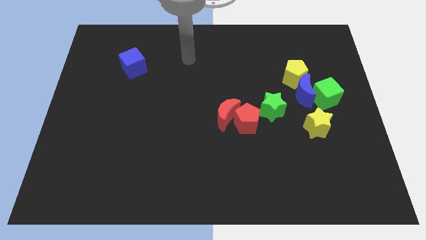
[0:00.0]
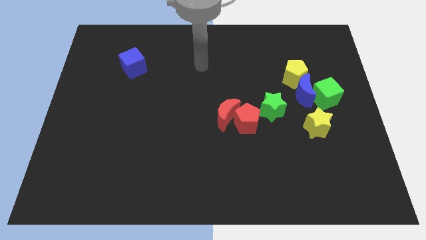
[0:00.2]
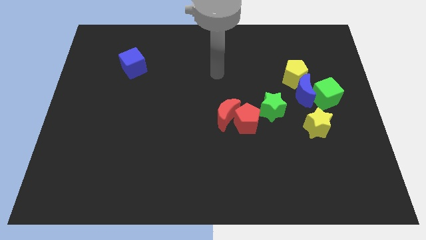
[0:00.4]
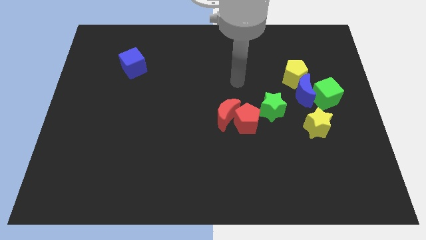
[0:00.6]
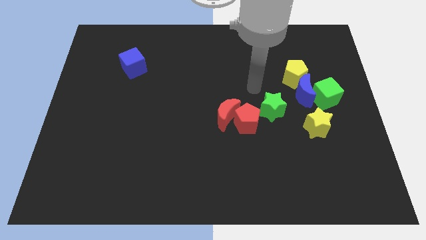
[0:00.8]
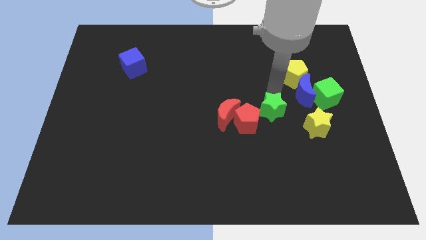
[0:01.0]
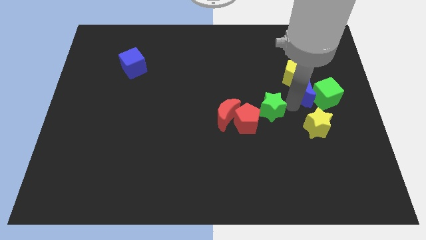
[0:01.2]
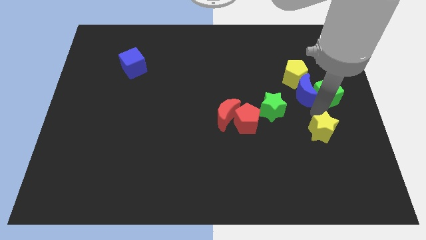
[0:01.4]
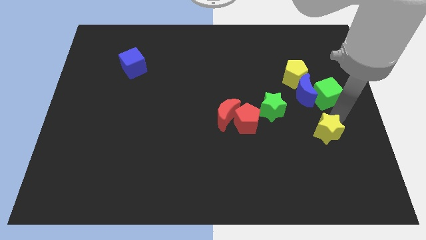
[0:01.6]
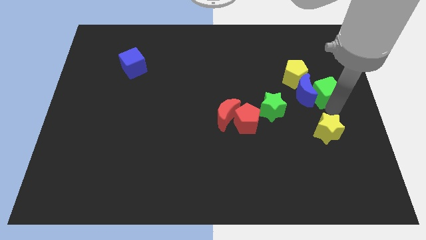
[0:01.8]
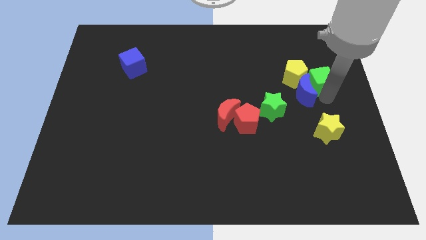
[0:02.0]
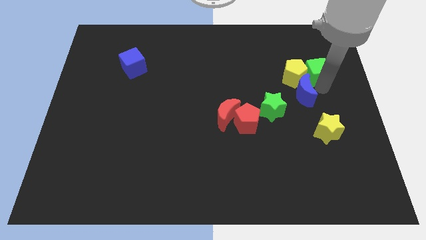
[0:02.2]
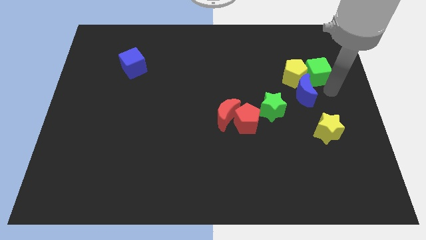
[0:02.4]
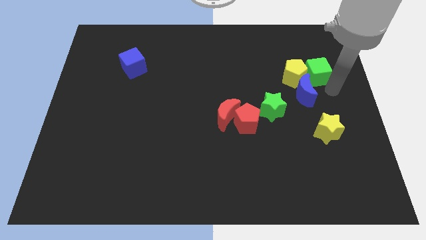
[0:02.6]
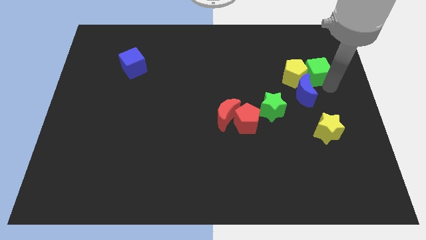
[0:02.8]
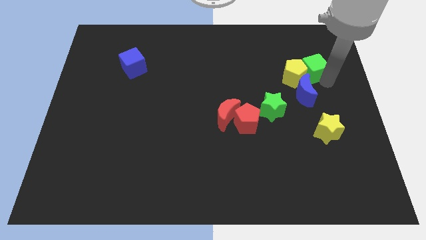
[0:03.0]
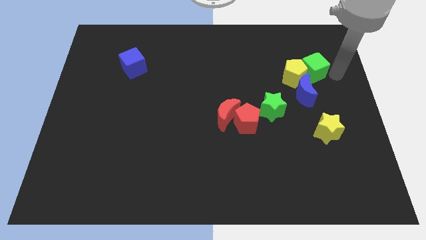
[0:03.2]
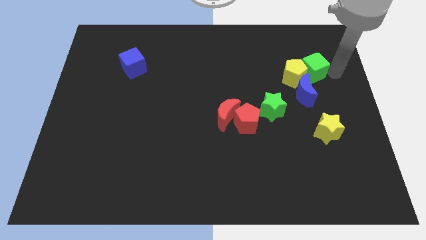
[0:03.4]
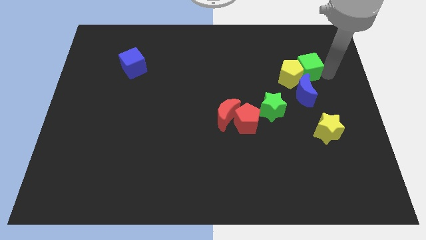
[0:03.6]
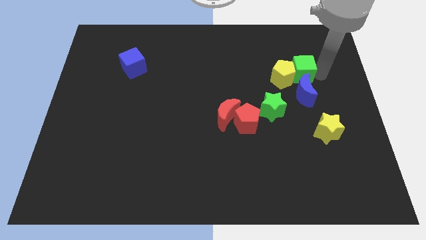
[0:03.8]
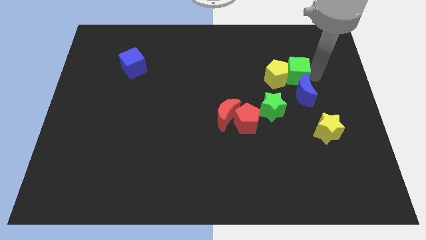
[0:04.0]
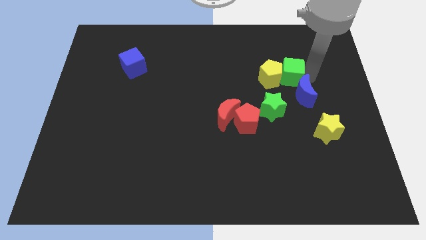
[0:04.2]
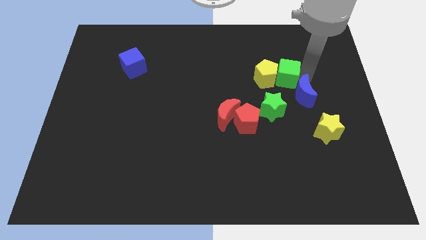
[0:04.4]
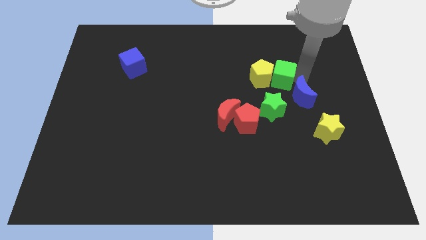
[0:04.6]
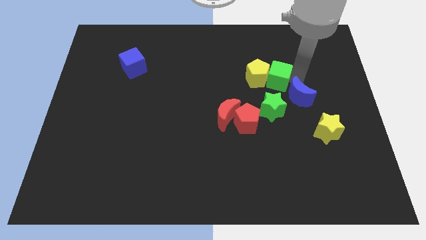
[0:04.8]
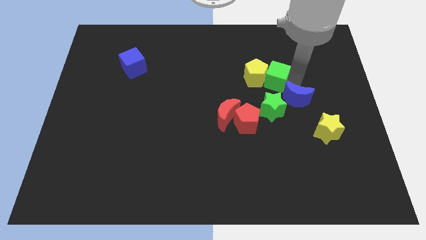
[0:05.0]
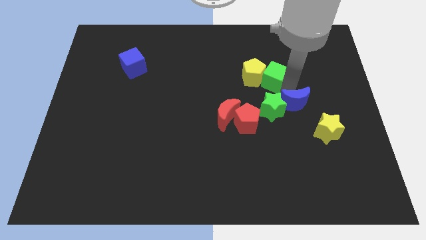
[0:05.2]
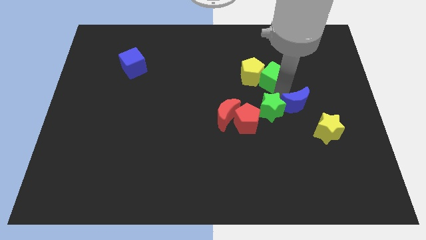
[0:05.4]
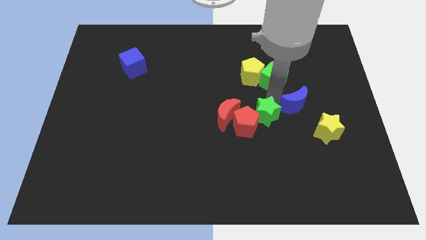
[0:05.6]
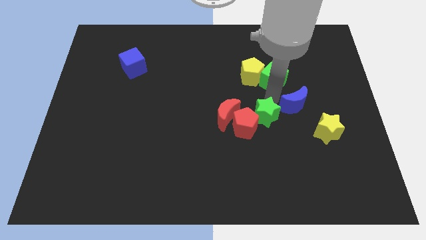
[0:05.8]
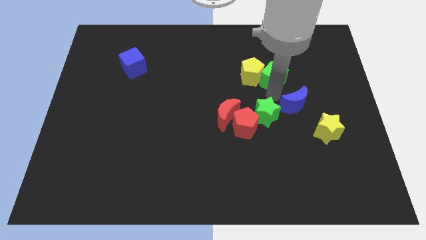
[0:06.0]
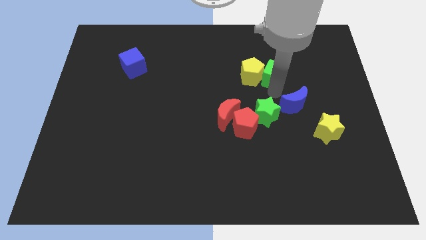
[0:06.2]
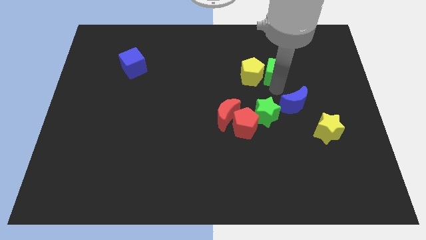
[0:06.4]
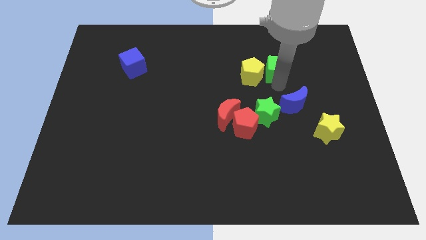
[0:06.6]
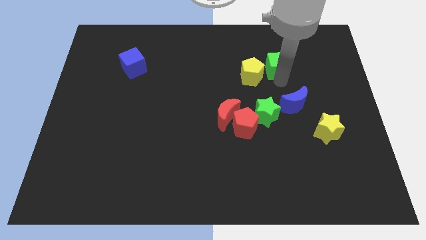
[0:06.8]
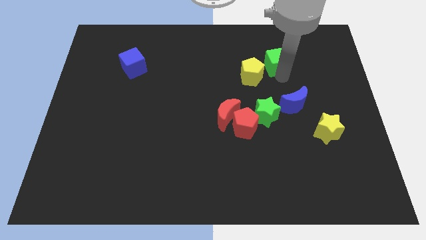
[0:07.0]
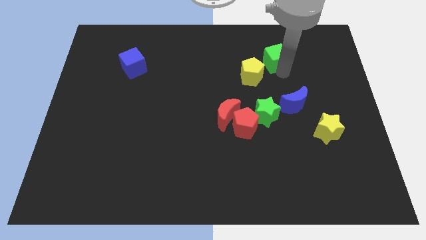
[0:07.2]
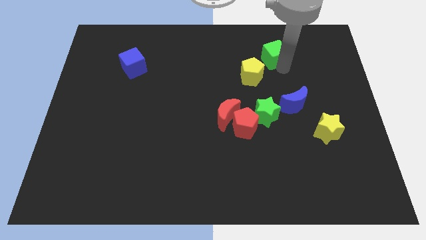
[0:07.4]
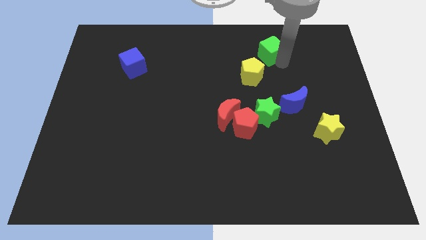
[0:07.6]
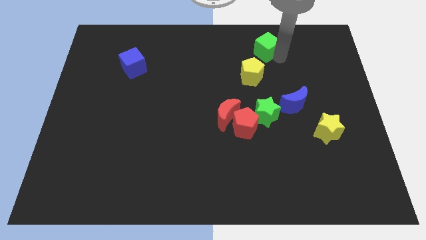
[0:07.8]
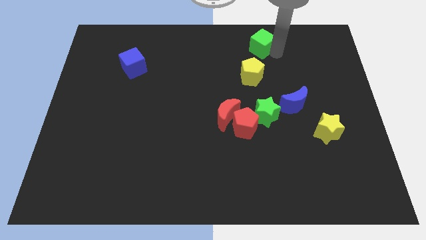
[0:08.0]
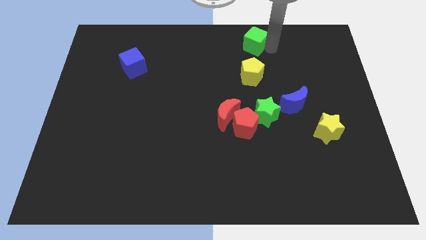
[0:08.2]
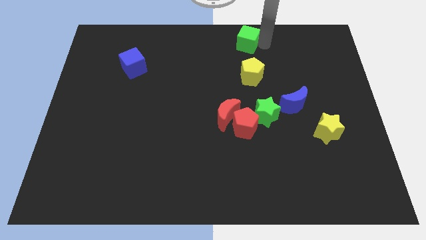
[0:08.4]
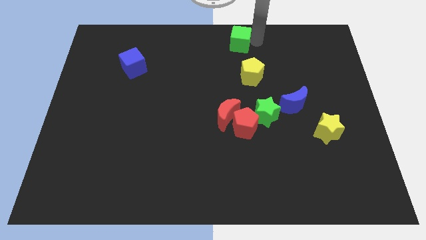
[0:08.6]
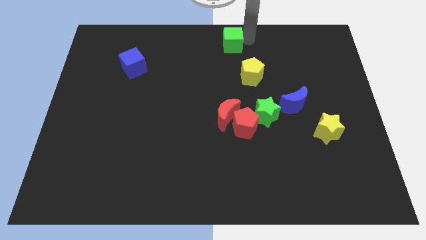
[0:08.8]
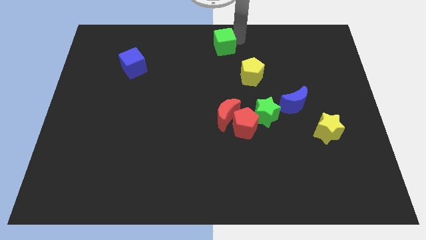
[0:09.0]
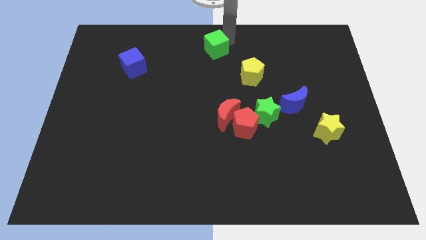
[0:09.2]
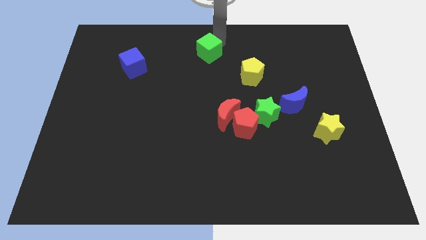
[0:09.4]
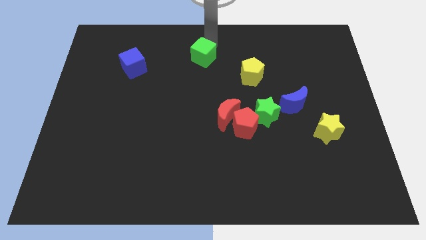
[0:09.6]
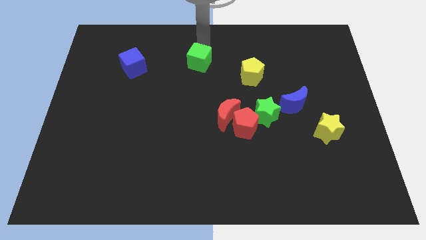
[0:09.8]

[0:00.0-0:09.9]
push the green cube left

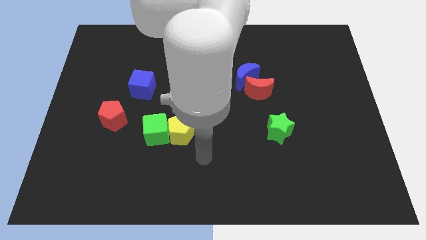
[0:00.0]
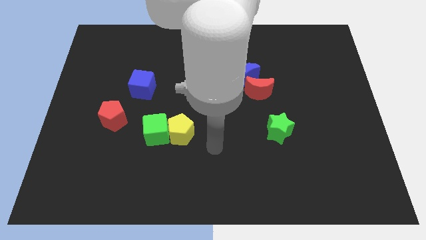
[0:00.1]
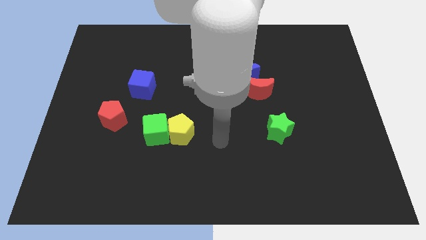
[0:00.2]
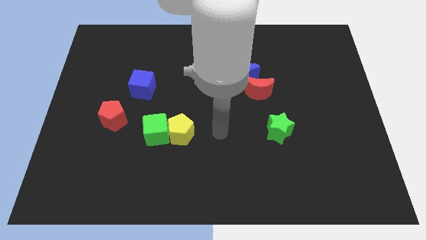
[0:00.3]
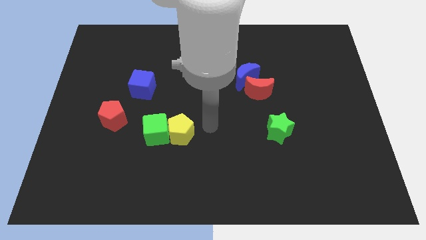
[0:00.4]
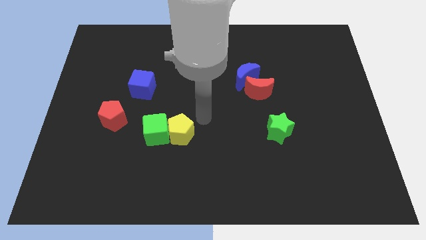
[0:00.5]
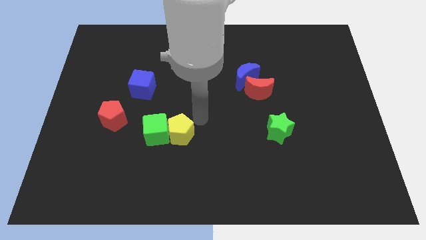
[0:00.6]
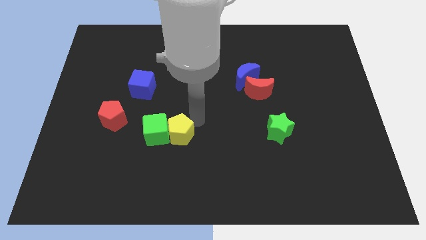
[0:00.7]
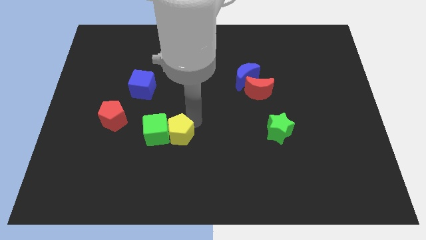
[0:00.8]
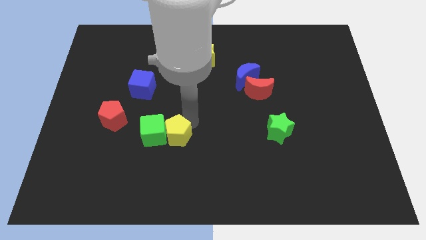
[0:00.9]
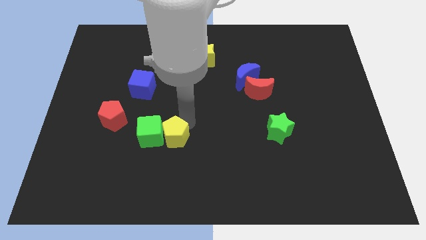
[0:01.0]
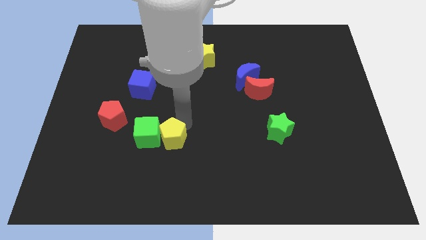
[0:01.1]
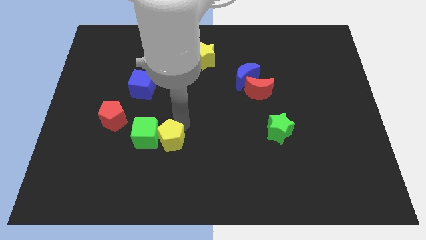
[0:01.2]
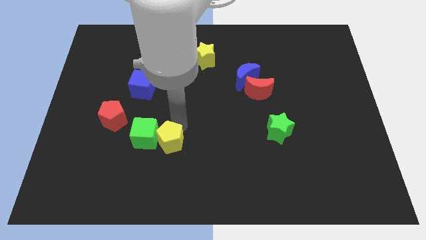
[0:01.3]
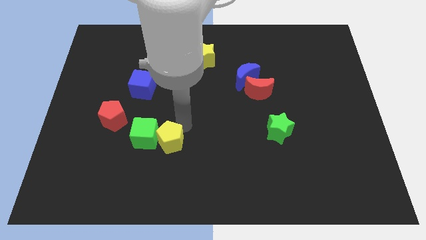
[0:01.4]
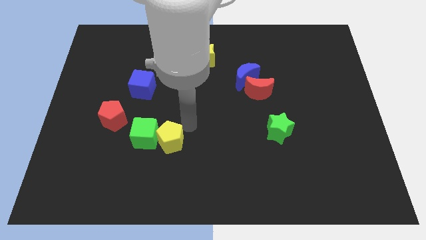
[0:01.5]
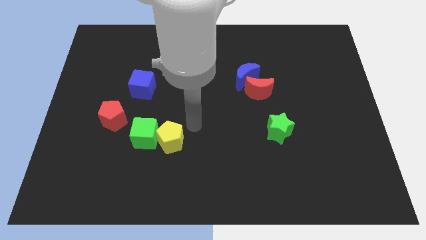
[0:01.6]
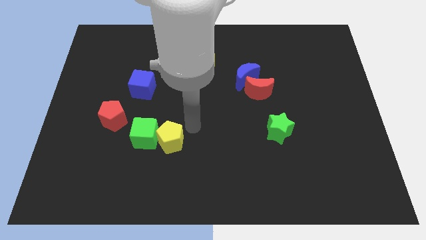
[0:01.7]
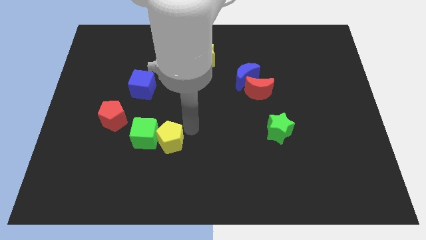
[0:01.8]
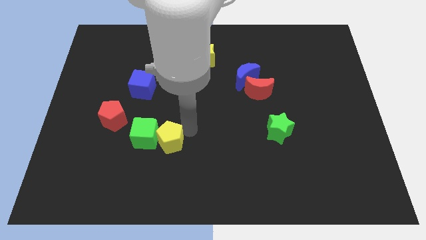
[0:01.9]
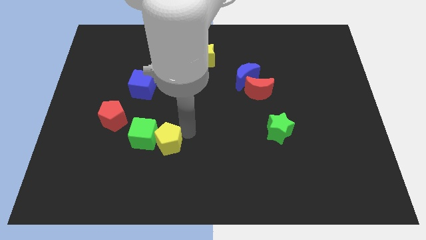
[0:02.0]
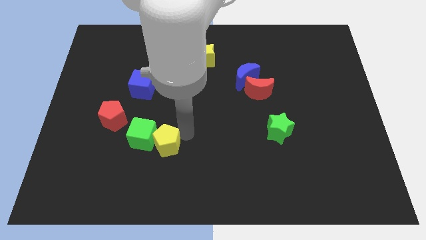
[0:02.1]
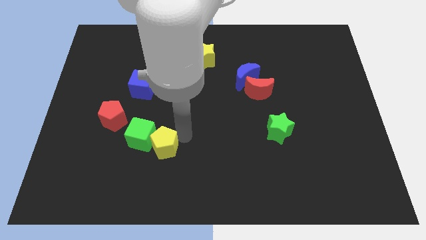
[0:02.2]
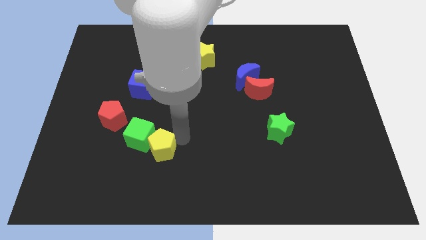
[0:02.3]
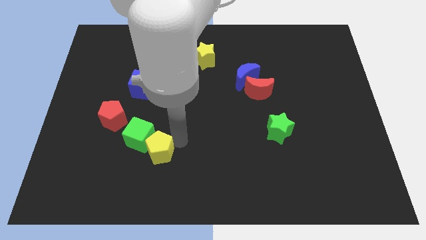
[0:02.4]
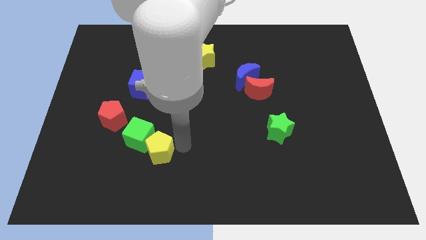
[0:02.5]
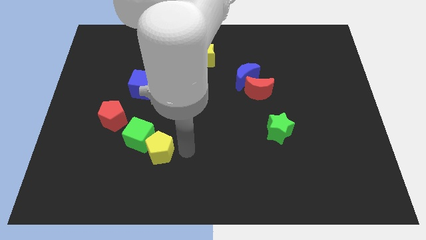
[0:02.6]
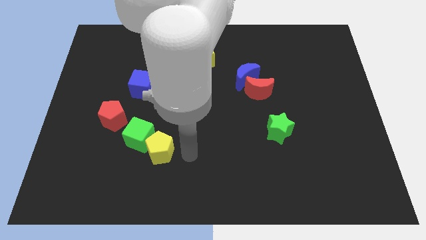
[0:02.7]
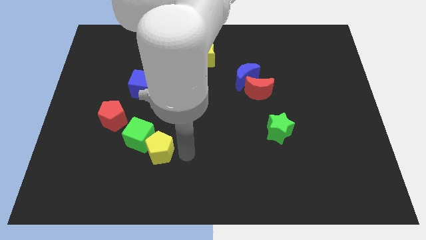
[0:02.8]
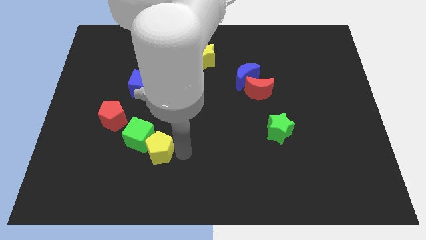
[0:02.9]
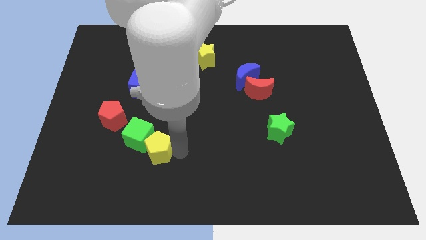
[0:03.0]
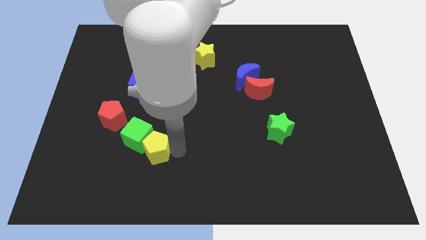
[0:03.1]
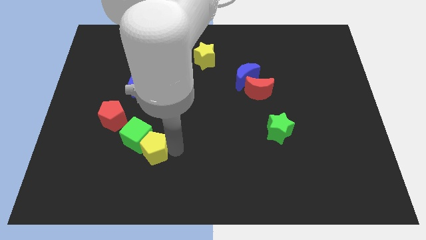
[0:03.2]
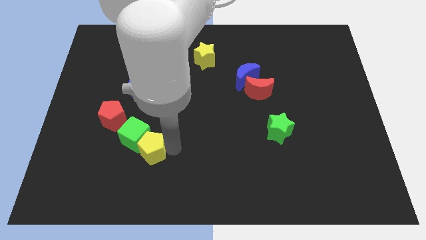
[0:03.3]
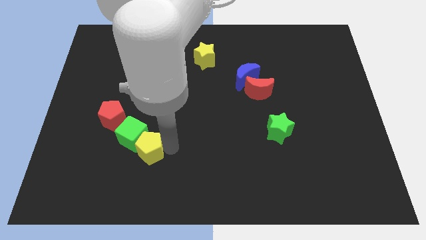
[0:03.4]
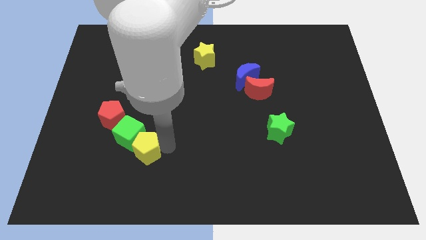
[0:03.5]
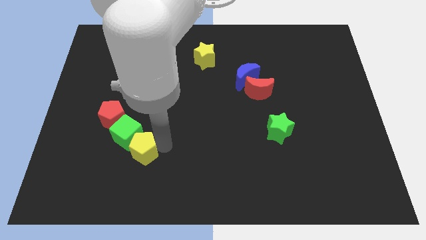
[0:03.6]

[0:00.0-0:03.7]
slightly slide the yellow pentagon to the left
